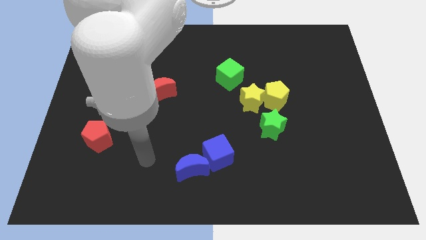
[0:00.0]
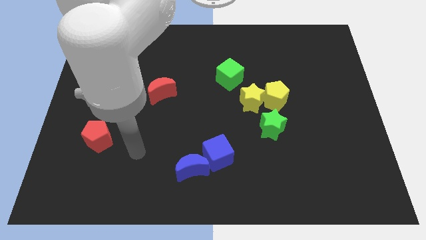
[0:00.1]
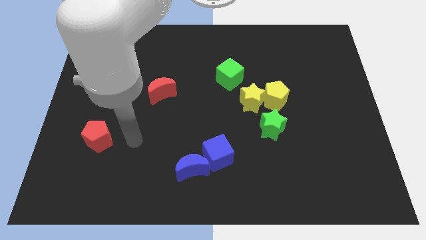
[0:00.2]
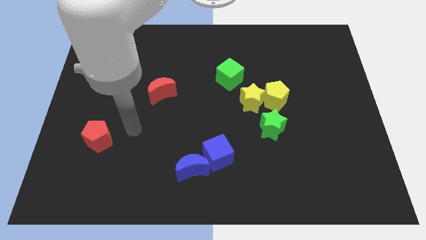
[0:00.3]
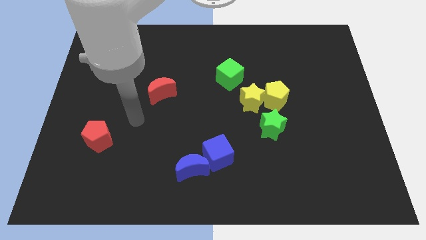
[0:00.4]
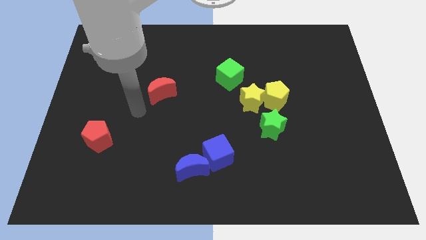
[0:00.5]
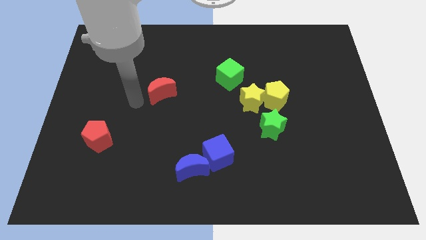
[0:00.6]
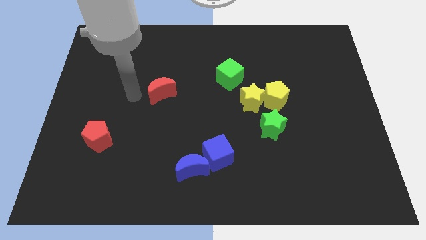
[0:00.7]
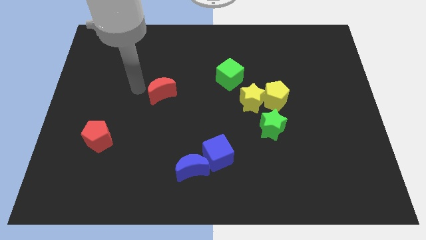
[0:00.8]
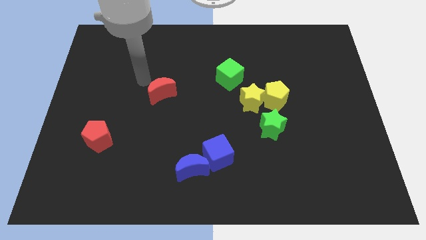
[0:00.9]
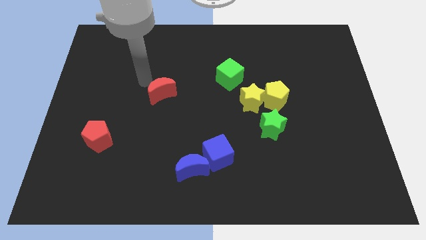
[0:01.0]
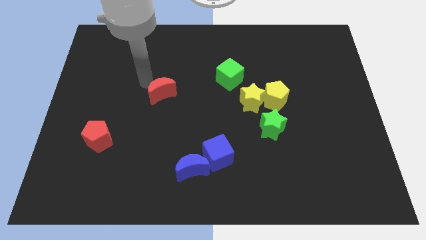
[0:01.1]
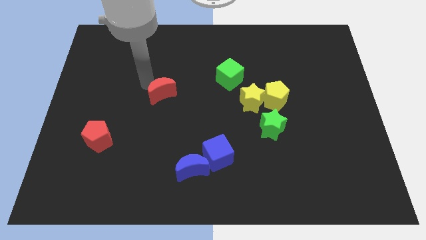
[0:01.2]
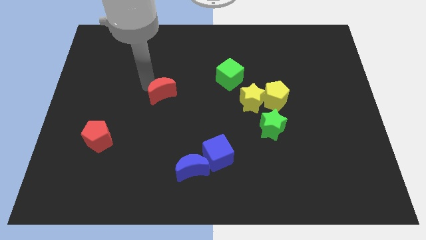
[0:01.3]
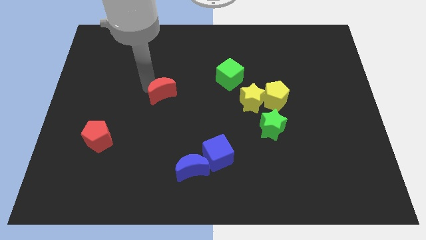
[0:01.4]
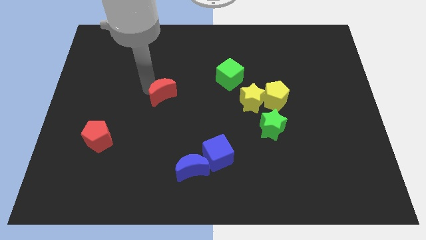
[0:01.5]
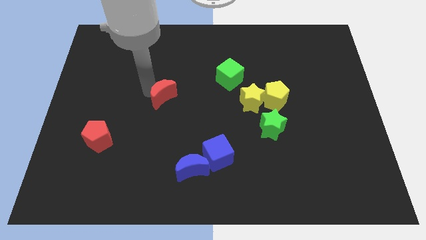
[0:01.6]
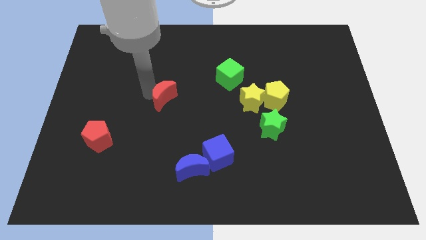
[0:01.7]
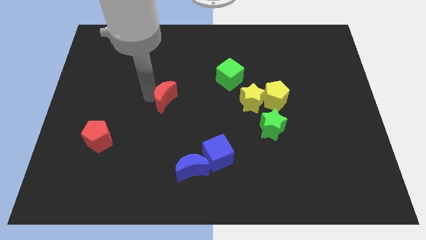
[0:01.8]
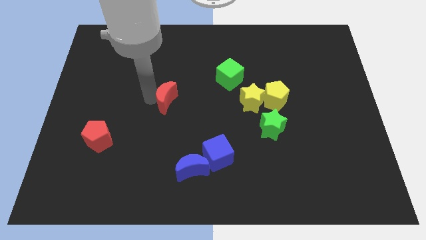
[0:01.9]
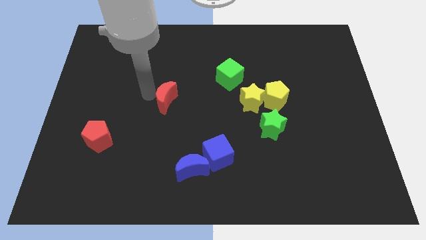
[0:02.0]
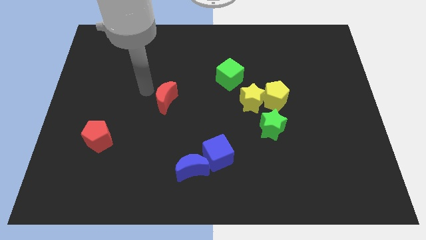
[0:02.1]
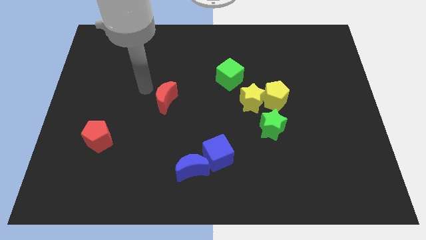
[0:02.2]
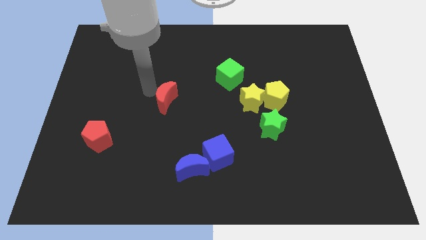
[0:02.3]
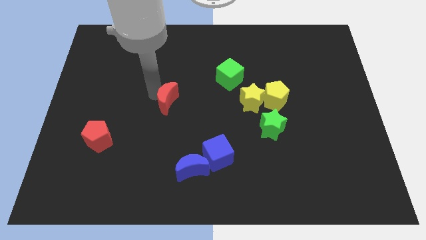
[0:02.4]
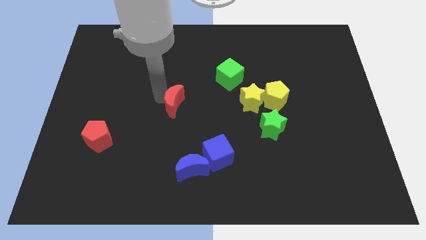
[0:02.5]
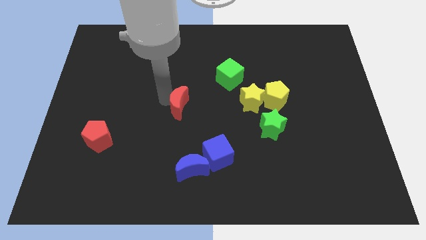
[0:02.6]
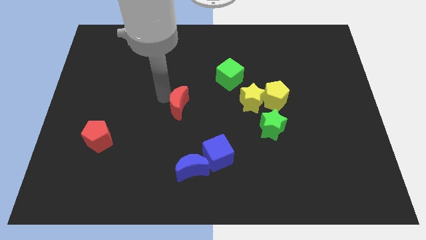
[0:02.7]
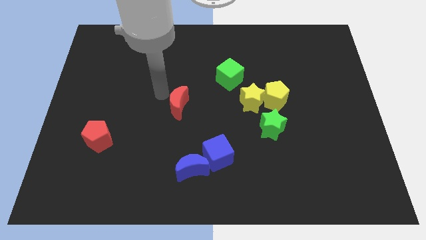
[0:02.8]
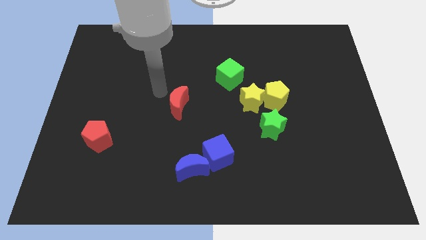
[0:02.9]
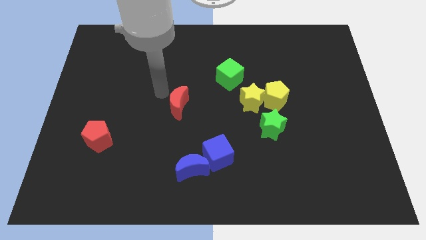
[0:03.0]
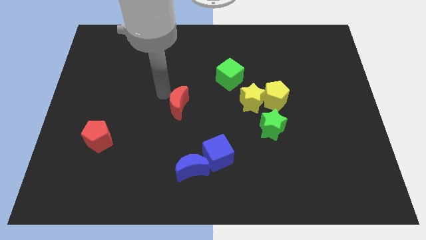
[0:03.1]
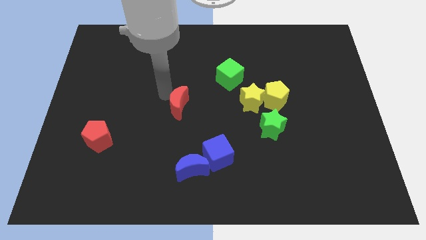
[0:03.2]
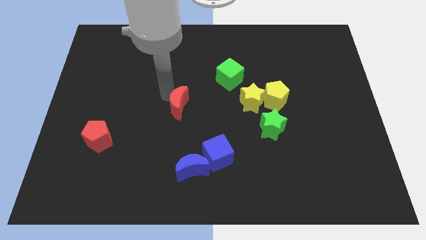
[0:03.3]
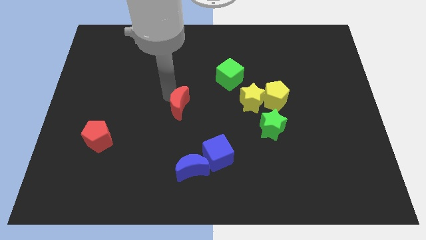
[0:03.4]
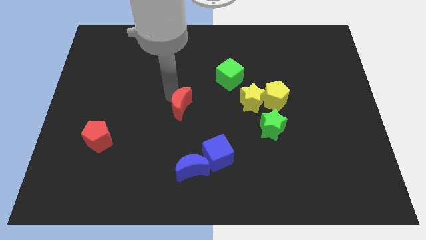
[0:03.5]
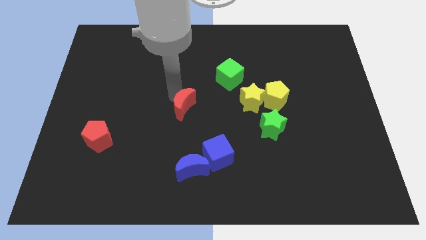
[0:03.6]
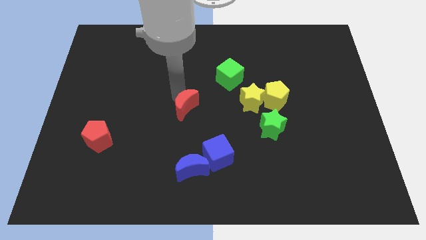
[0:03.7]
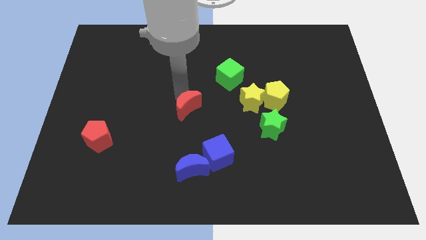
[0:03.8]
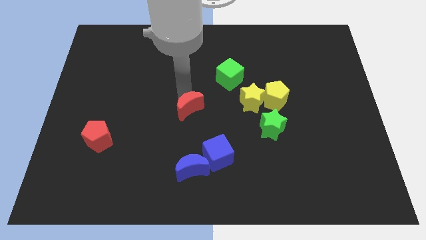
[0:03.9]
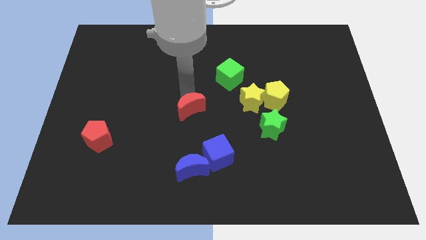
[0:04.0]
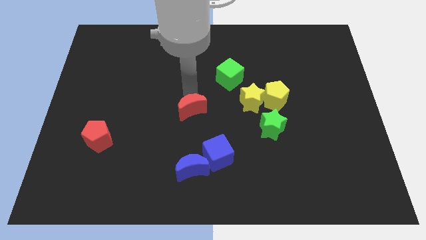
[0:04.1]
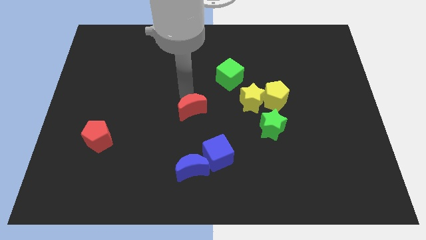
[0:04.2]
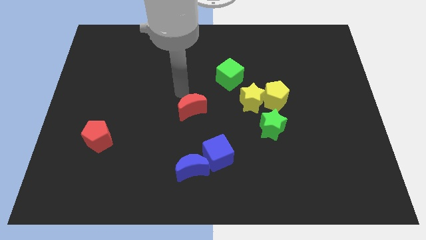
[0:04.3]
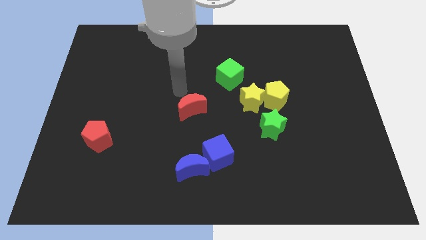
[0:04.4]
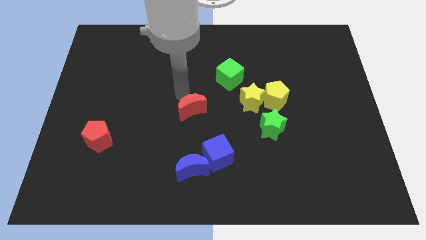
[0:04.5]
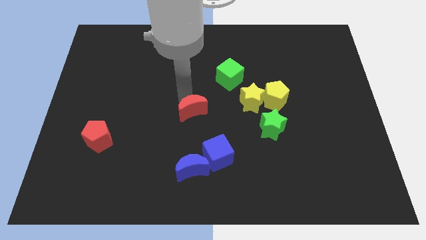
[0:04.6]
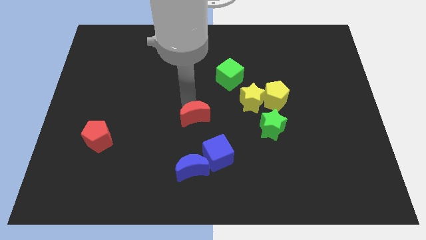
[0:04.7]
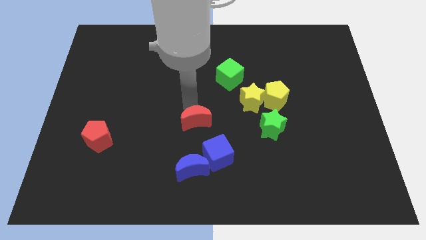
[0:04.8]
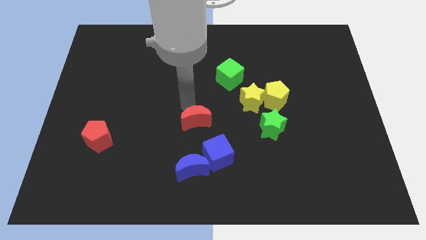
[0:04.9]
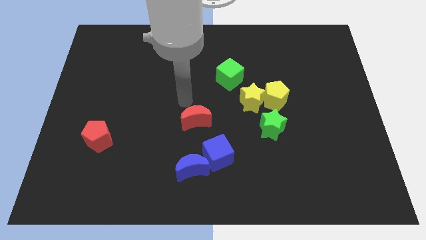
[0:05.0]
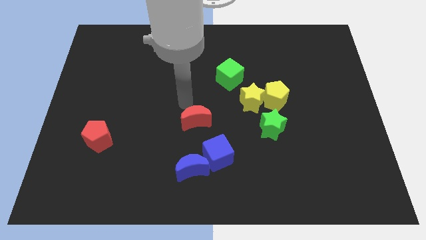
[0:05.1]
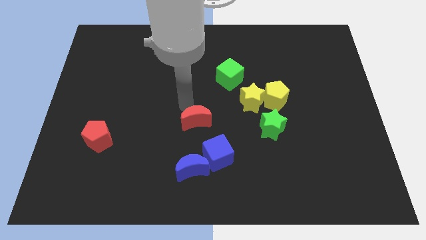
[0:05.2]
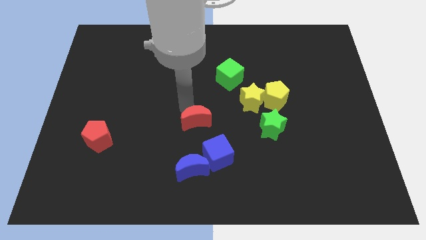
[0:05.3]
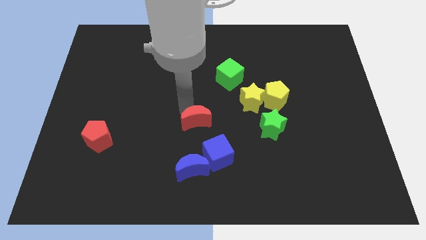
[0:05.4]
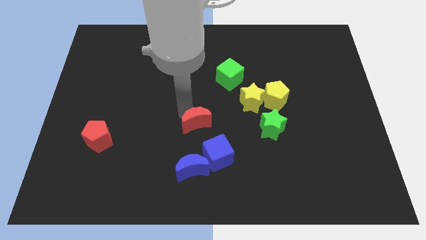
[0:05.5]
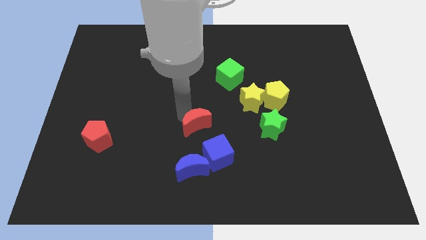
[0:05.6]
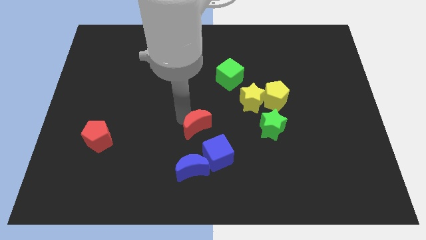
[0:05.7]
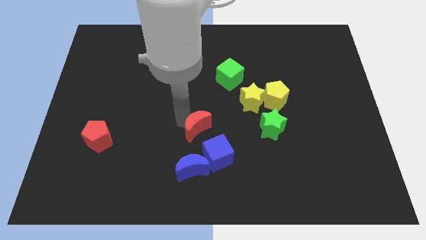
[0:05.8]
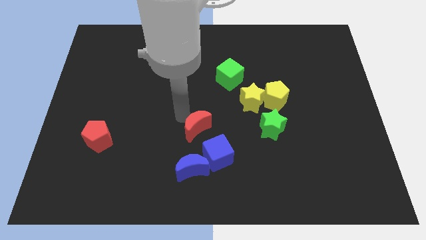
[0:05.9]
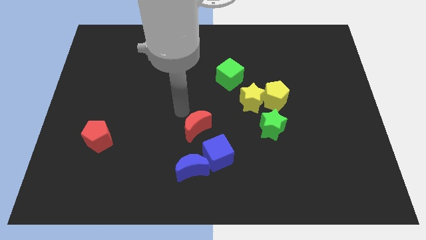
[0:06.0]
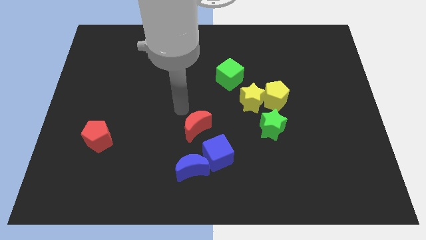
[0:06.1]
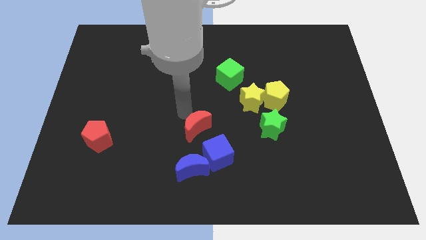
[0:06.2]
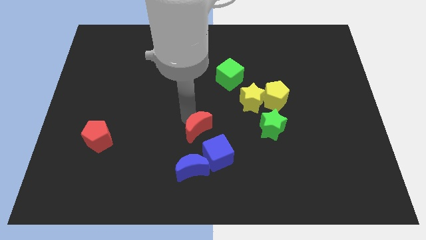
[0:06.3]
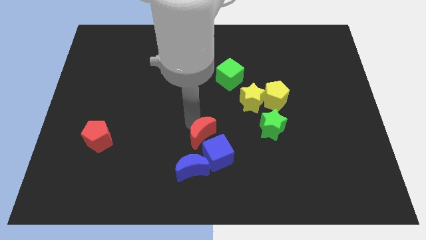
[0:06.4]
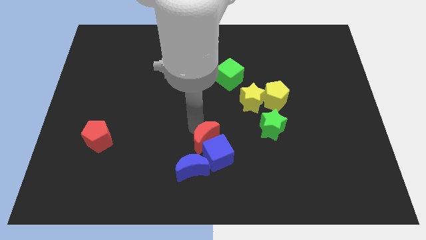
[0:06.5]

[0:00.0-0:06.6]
slide the red moon to the blue cube

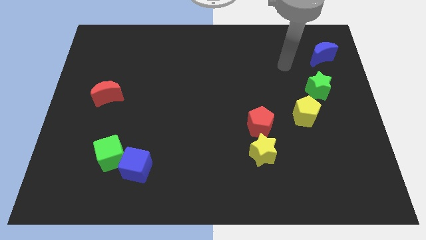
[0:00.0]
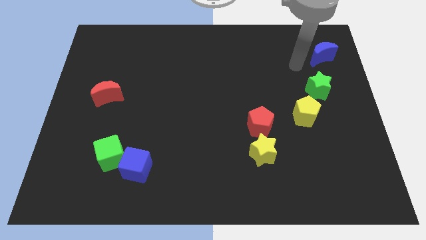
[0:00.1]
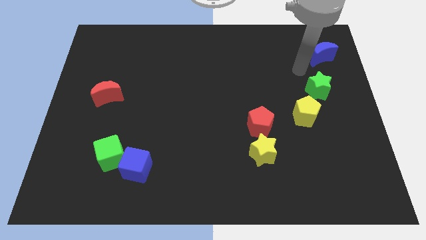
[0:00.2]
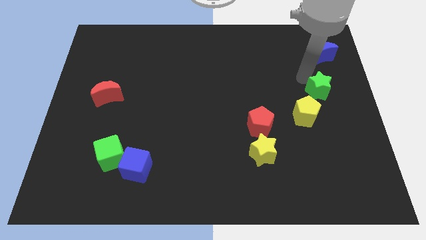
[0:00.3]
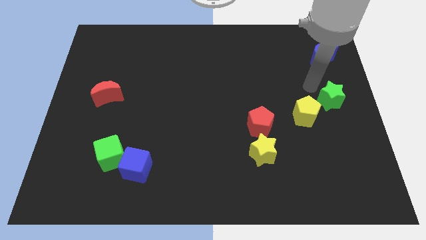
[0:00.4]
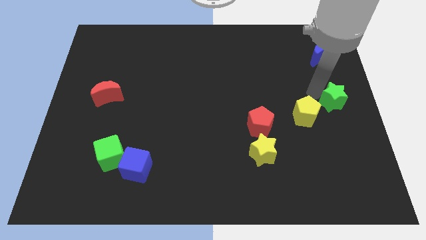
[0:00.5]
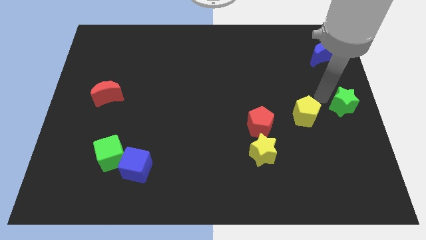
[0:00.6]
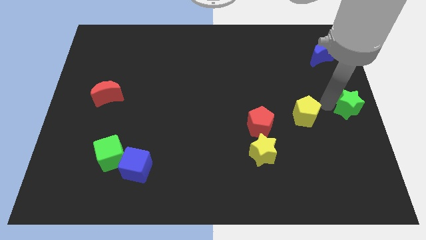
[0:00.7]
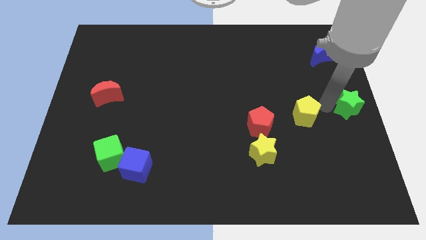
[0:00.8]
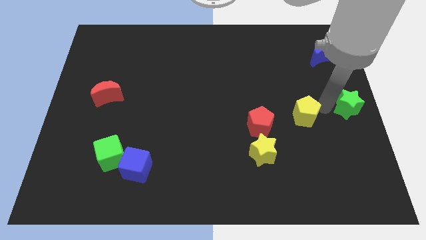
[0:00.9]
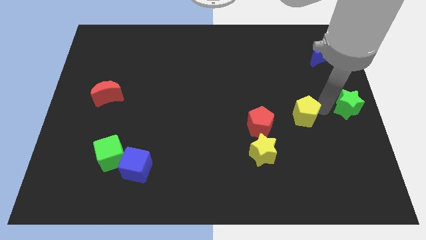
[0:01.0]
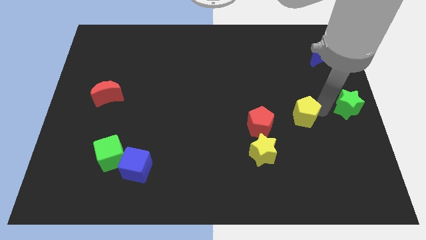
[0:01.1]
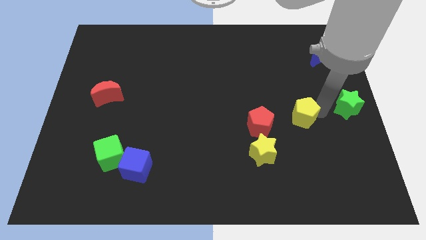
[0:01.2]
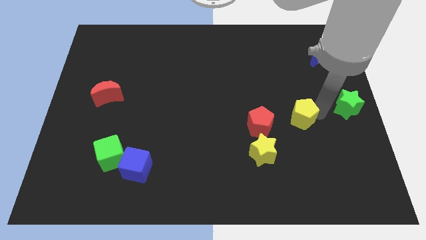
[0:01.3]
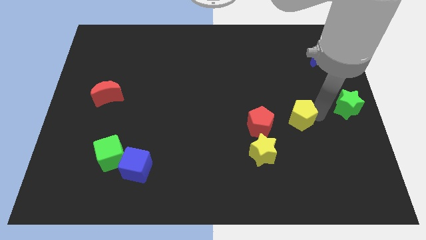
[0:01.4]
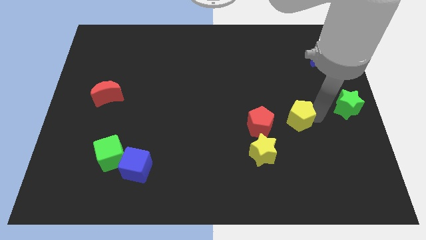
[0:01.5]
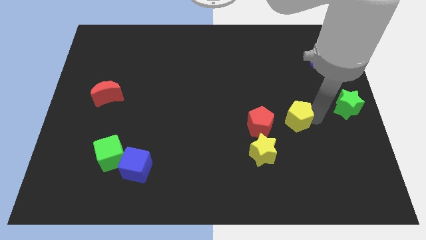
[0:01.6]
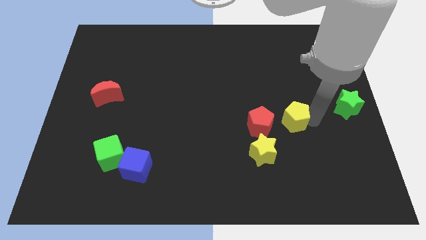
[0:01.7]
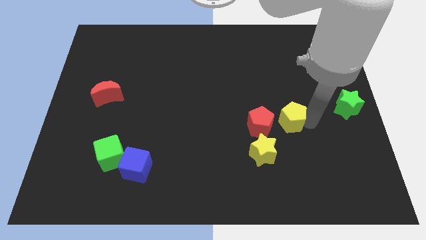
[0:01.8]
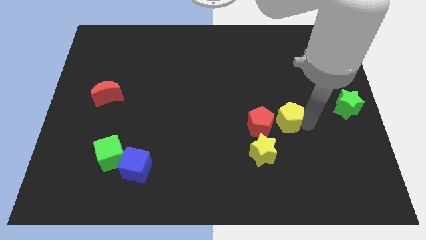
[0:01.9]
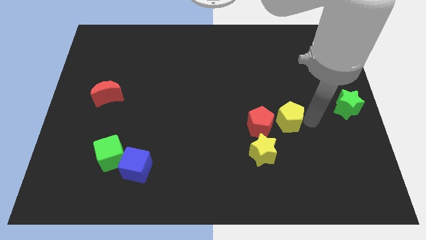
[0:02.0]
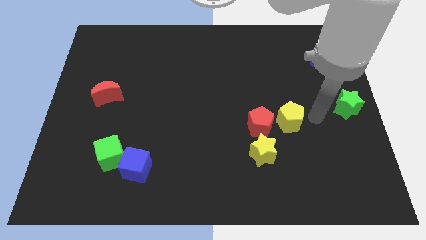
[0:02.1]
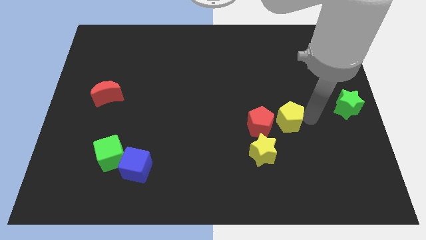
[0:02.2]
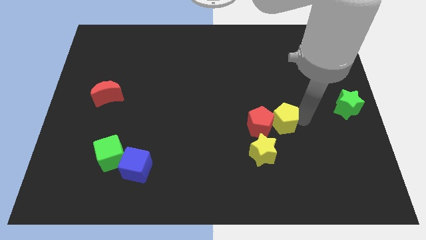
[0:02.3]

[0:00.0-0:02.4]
move the yellow pentagon to the red pentagon
